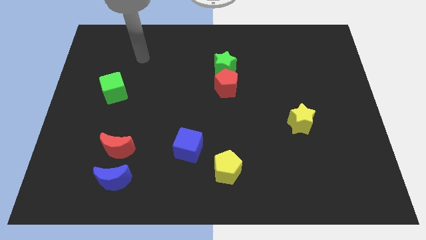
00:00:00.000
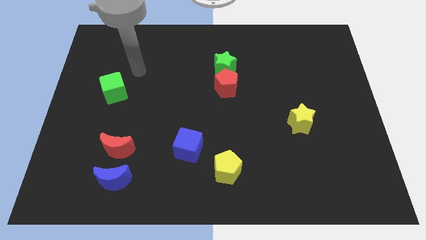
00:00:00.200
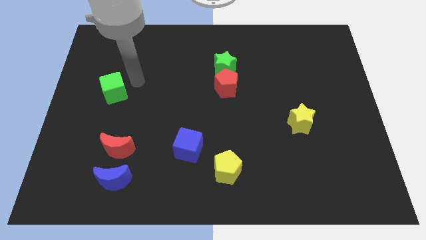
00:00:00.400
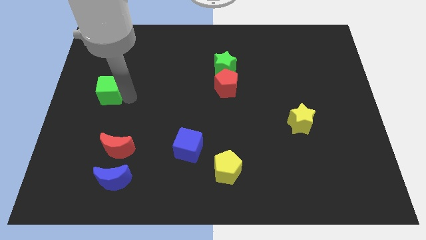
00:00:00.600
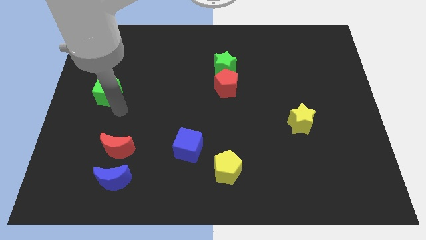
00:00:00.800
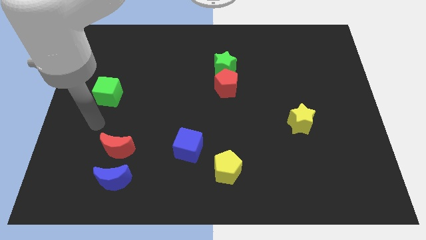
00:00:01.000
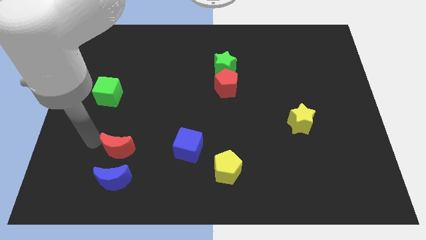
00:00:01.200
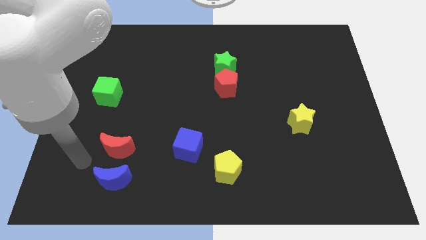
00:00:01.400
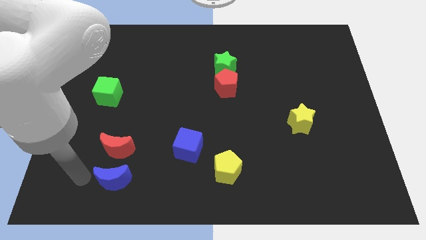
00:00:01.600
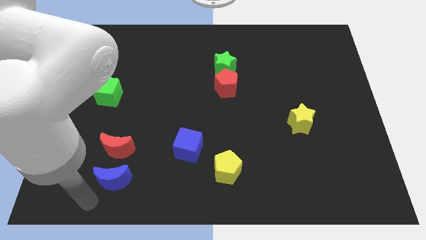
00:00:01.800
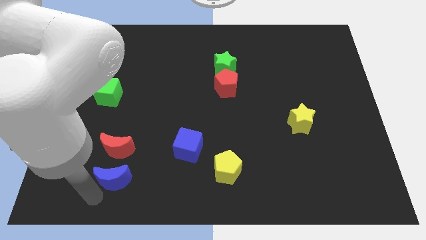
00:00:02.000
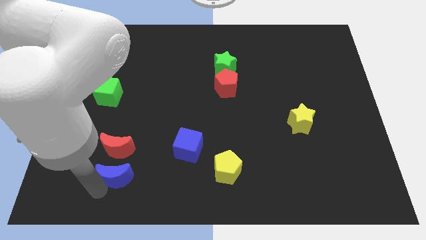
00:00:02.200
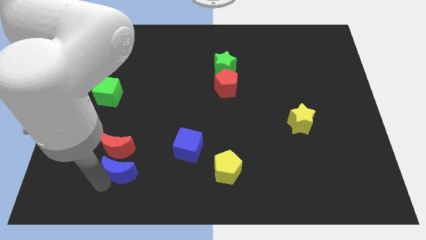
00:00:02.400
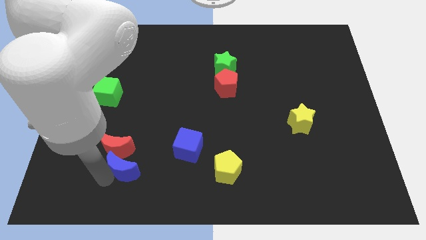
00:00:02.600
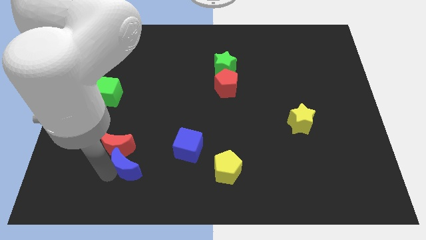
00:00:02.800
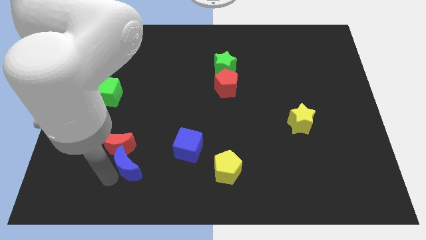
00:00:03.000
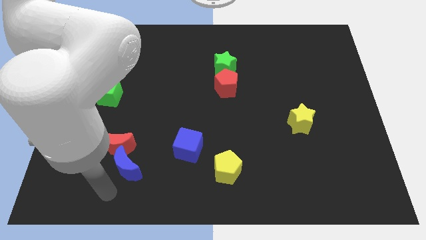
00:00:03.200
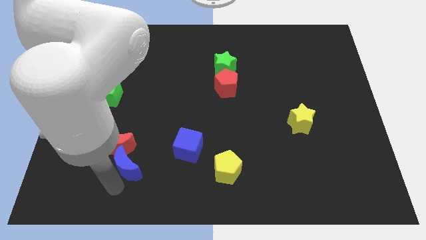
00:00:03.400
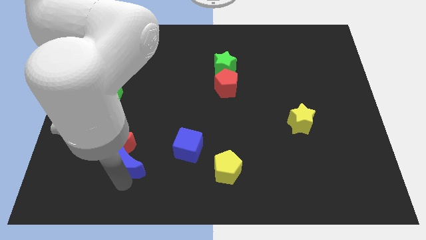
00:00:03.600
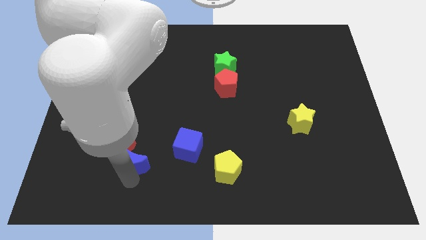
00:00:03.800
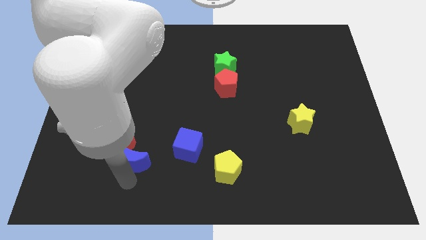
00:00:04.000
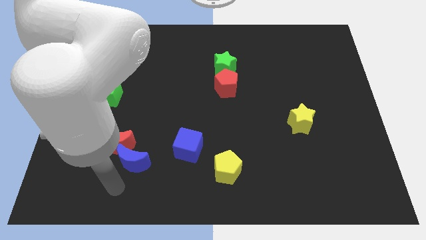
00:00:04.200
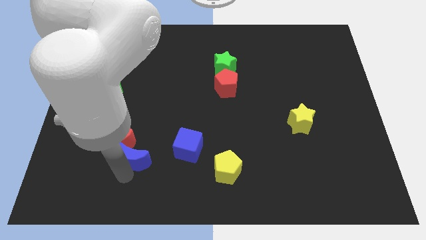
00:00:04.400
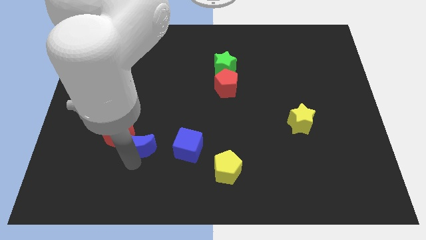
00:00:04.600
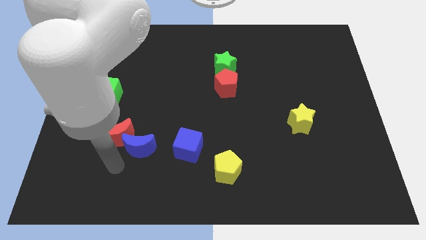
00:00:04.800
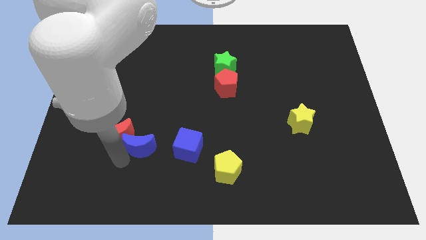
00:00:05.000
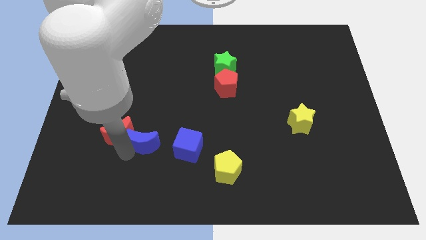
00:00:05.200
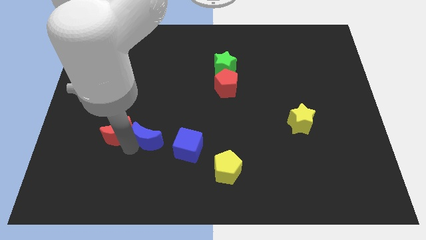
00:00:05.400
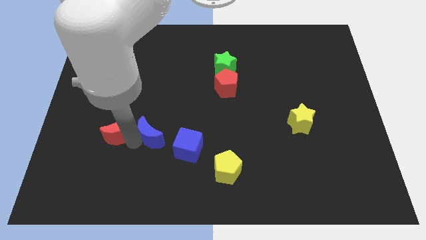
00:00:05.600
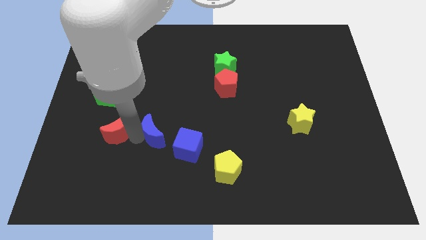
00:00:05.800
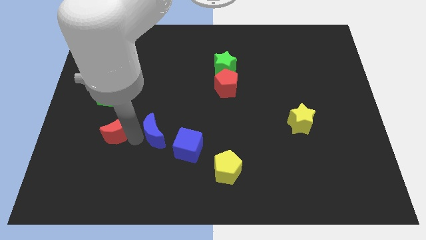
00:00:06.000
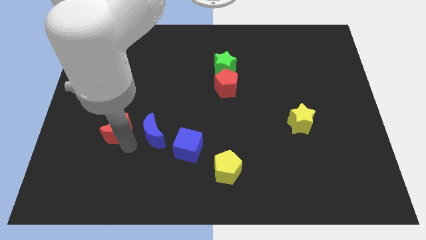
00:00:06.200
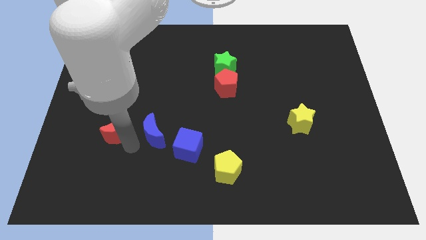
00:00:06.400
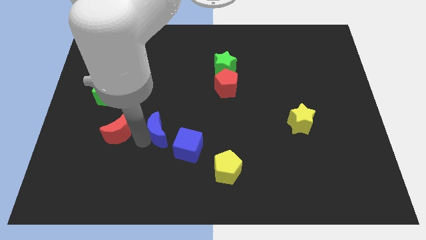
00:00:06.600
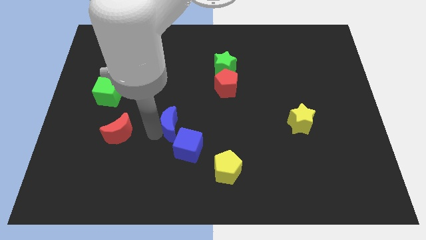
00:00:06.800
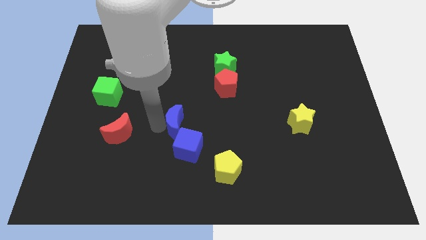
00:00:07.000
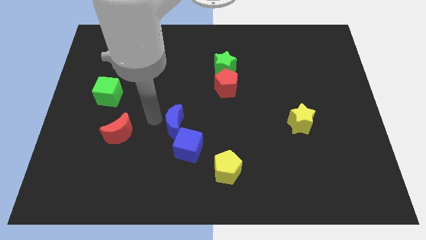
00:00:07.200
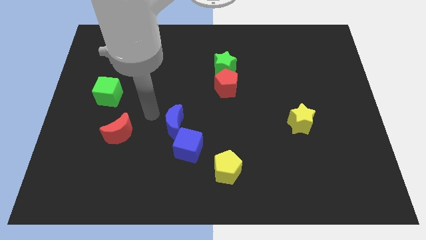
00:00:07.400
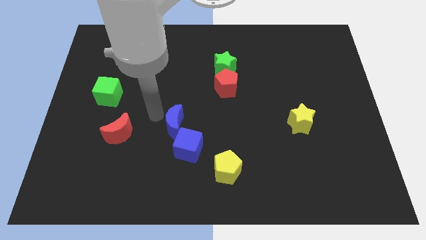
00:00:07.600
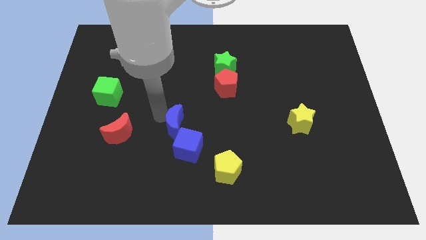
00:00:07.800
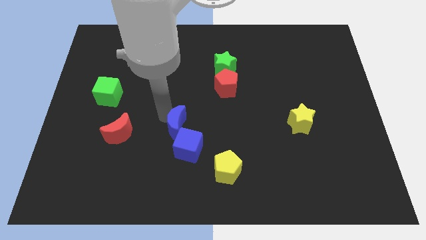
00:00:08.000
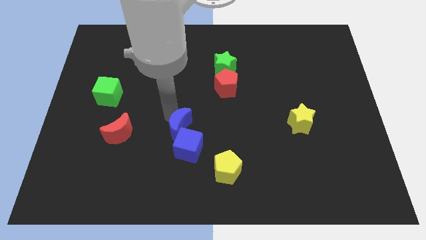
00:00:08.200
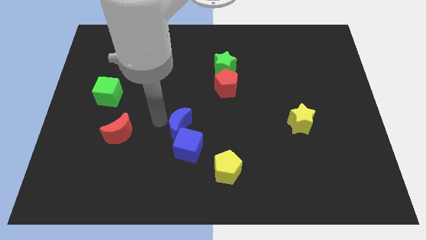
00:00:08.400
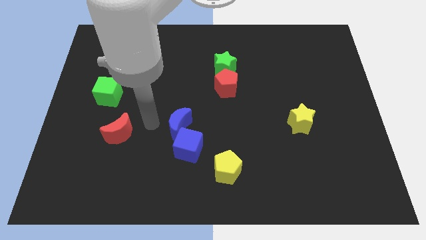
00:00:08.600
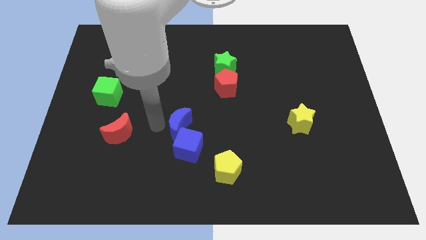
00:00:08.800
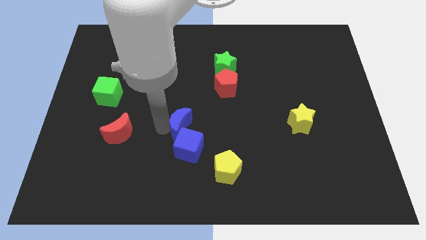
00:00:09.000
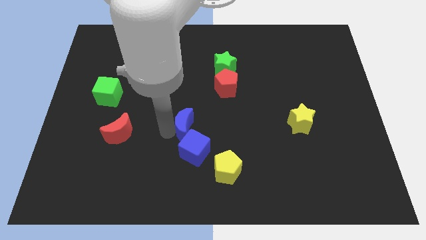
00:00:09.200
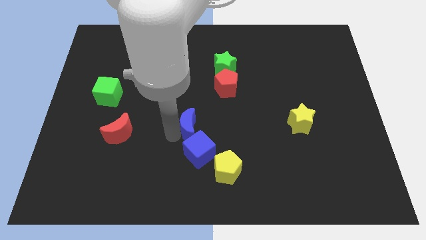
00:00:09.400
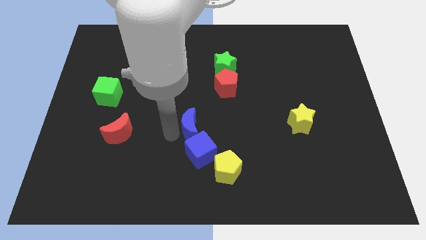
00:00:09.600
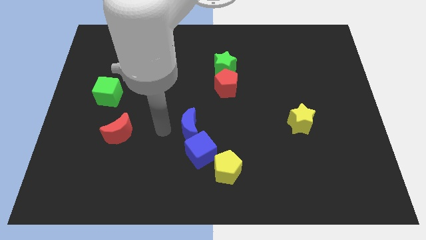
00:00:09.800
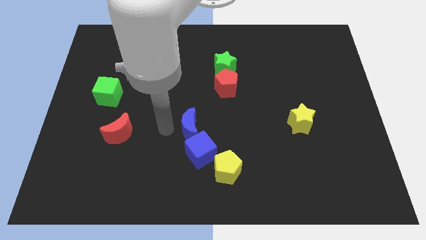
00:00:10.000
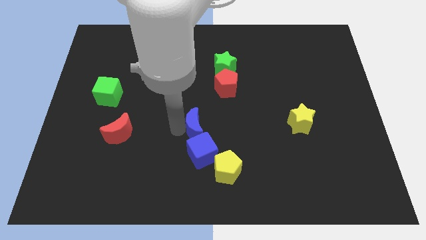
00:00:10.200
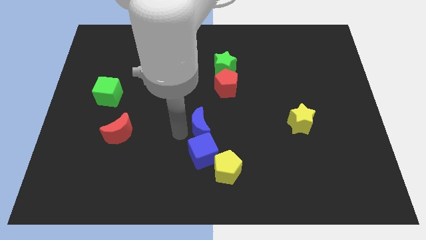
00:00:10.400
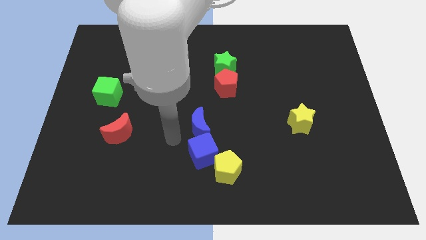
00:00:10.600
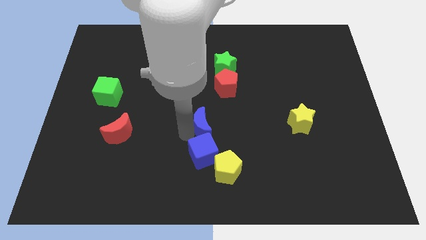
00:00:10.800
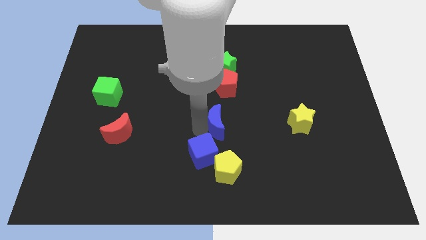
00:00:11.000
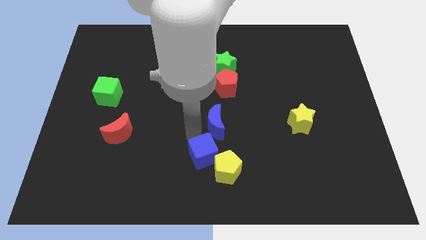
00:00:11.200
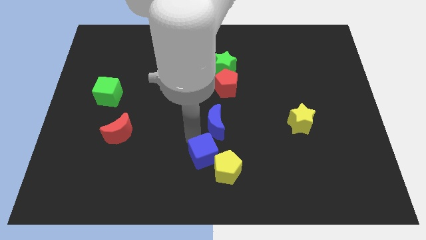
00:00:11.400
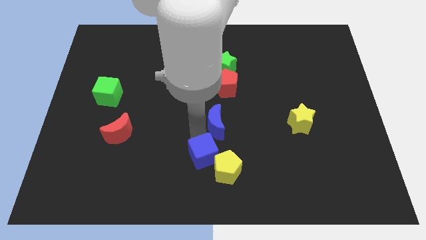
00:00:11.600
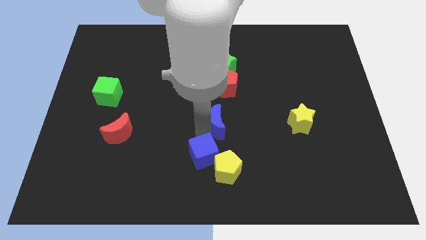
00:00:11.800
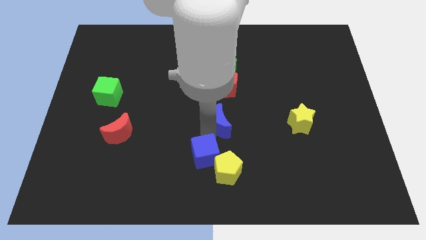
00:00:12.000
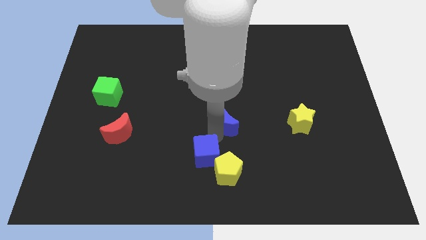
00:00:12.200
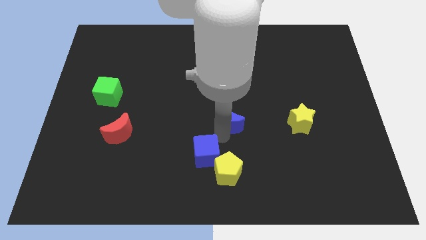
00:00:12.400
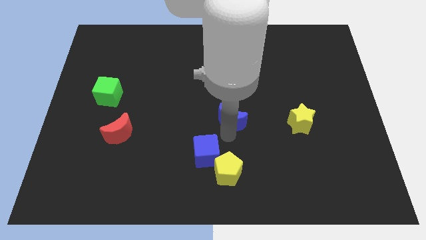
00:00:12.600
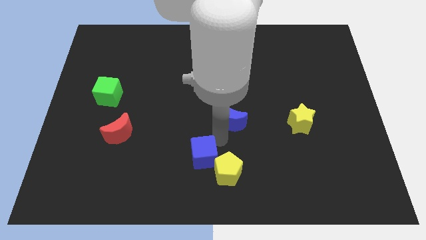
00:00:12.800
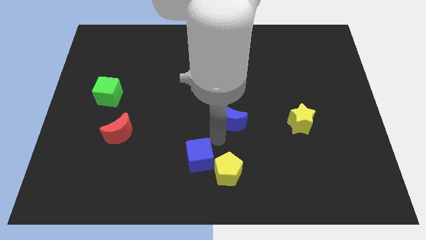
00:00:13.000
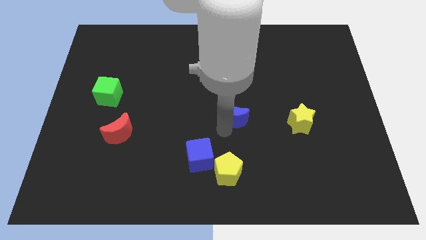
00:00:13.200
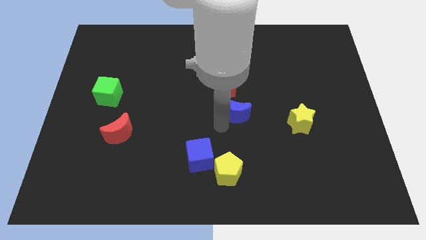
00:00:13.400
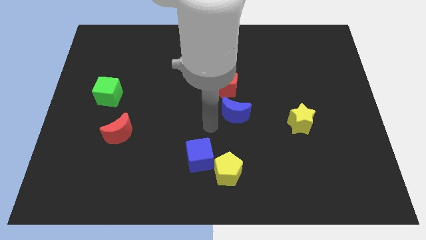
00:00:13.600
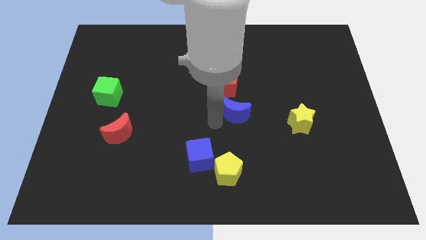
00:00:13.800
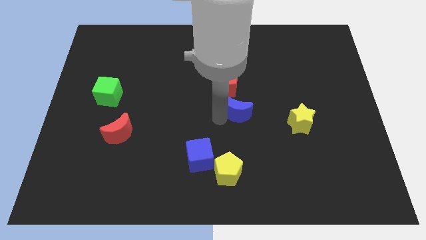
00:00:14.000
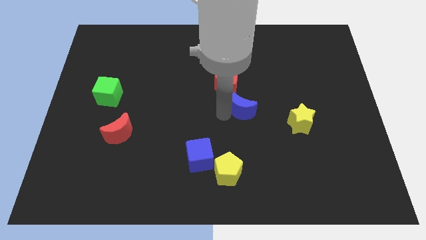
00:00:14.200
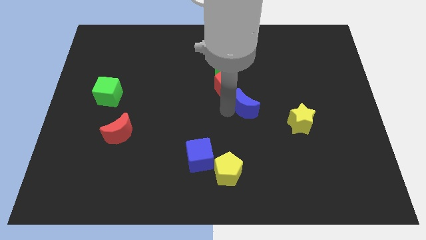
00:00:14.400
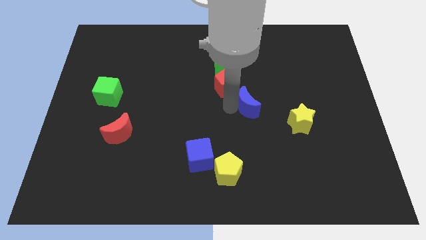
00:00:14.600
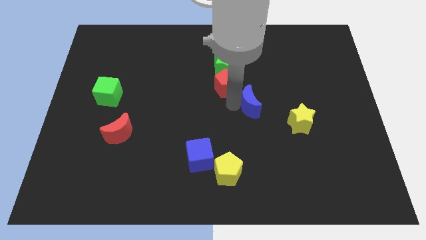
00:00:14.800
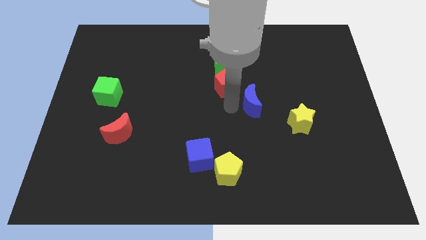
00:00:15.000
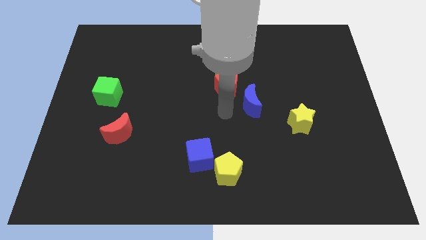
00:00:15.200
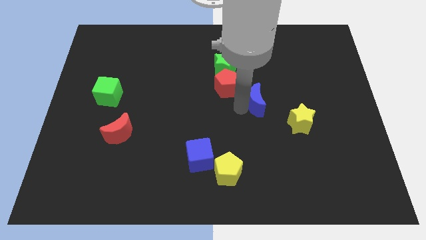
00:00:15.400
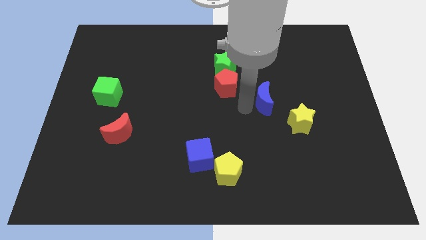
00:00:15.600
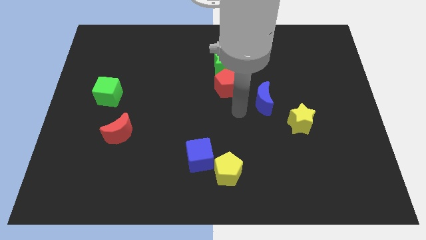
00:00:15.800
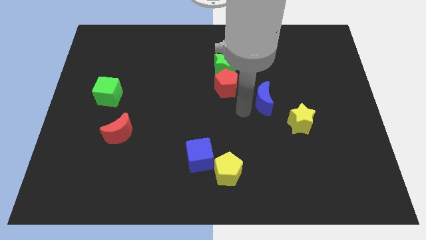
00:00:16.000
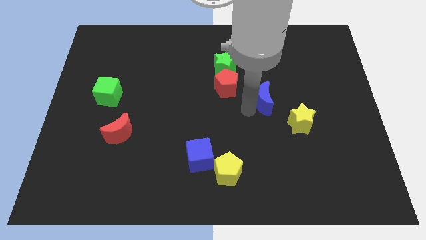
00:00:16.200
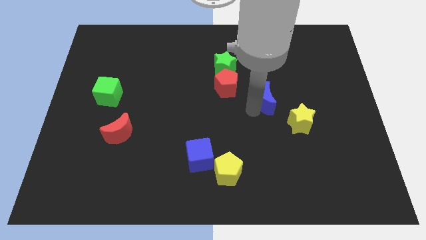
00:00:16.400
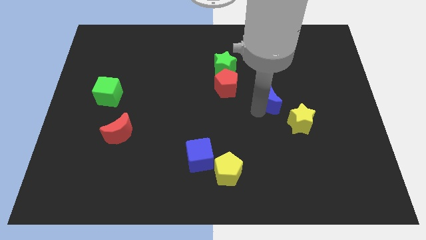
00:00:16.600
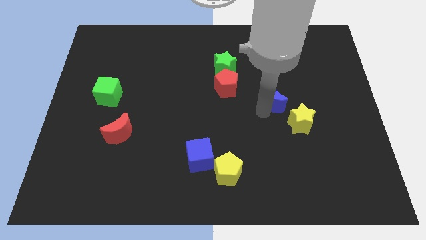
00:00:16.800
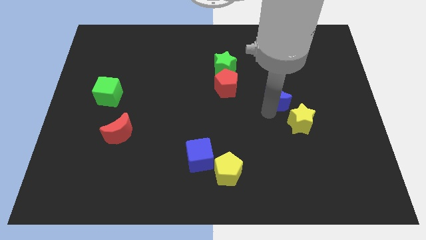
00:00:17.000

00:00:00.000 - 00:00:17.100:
put the blue moon to the top side of the yellow star
